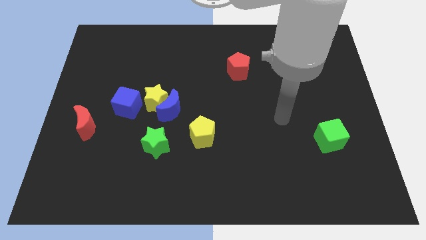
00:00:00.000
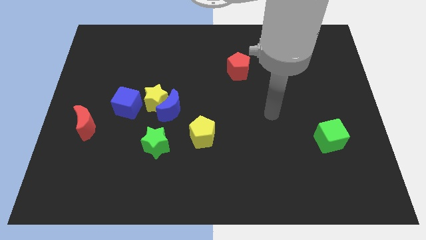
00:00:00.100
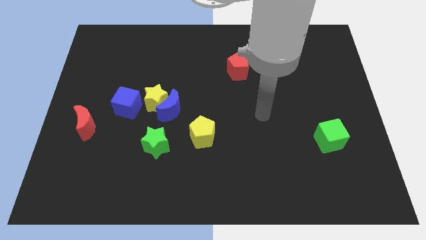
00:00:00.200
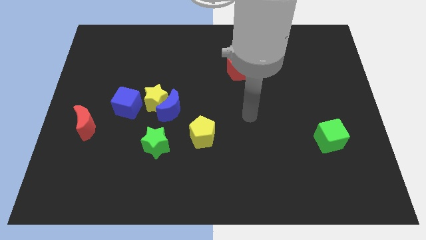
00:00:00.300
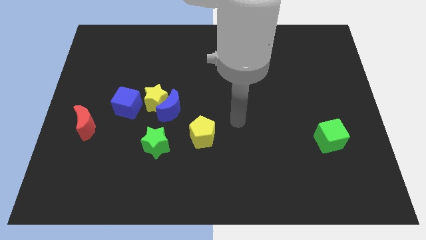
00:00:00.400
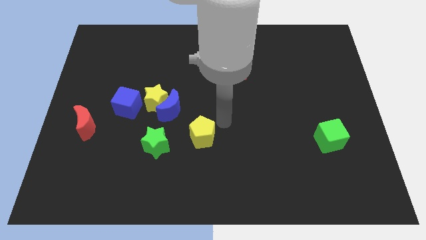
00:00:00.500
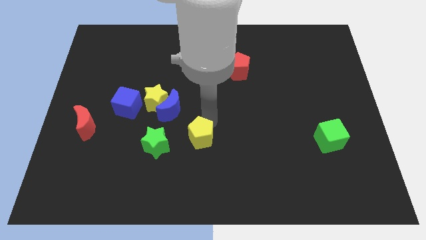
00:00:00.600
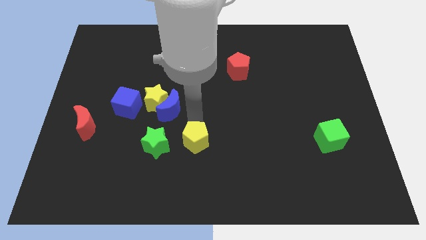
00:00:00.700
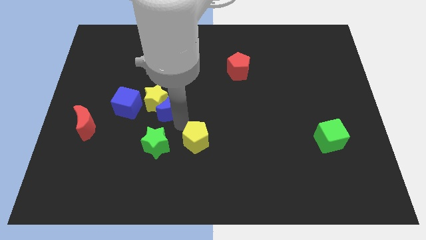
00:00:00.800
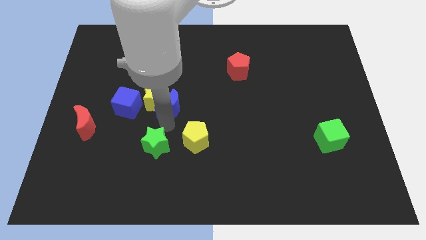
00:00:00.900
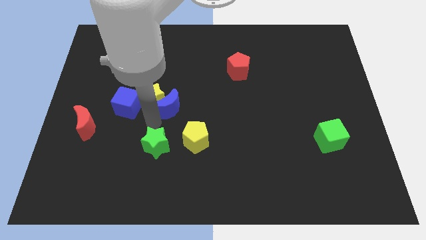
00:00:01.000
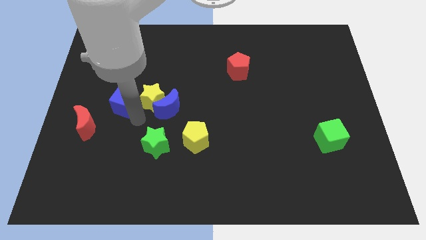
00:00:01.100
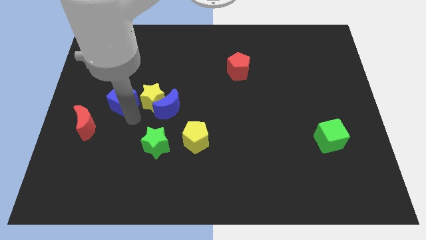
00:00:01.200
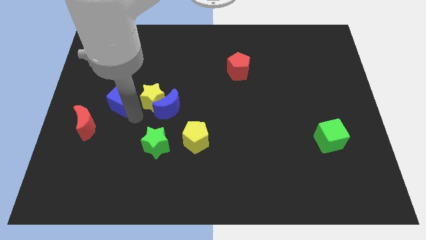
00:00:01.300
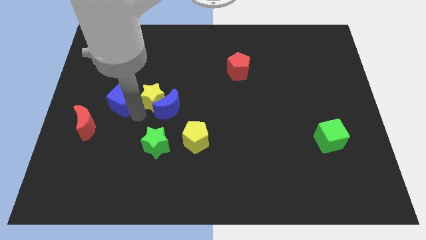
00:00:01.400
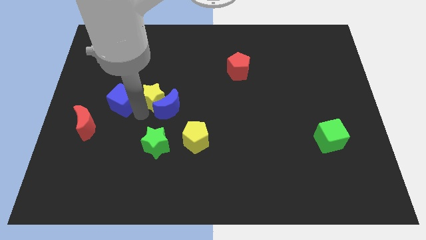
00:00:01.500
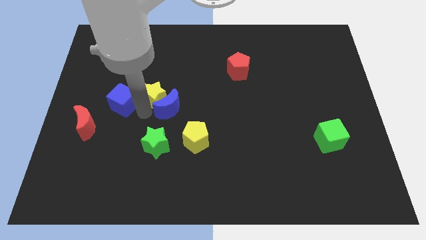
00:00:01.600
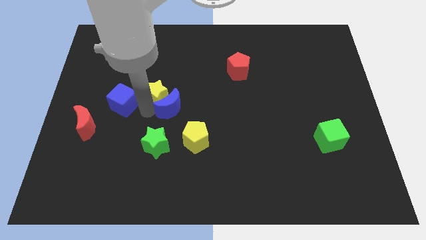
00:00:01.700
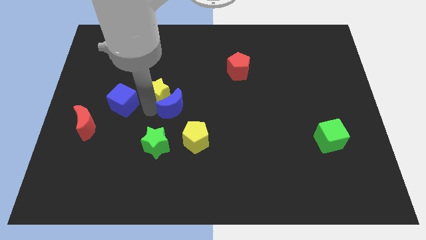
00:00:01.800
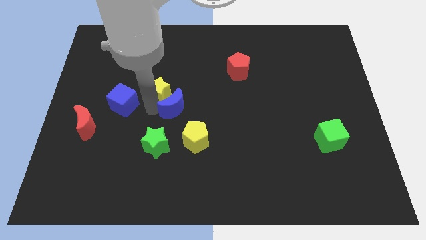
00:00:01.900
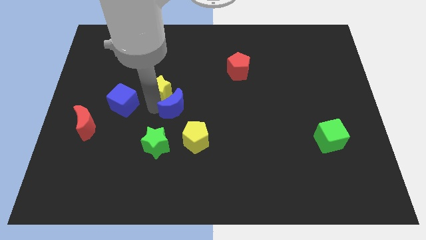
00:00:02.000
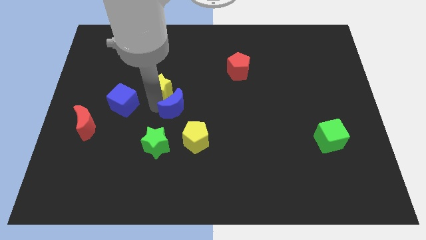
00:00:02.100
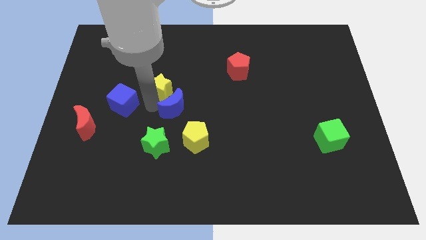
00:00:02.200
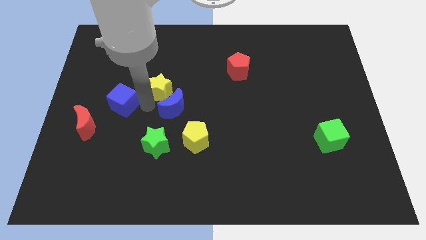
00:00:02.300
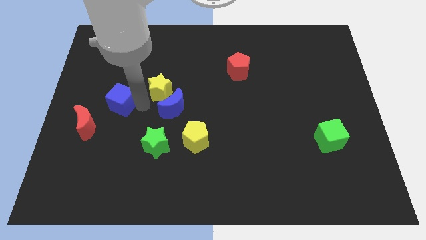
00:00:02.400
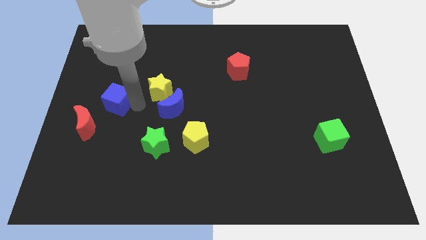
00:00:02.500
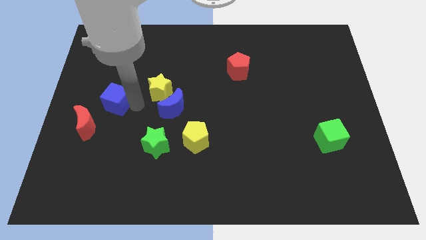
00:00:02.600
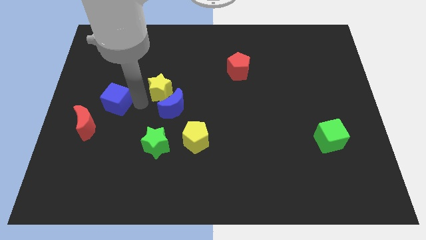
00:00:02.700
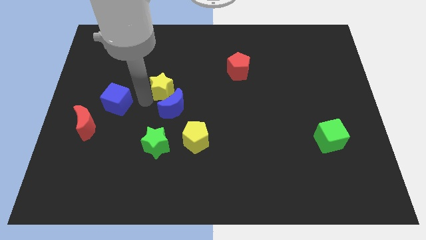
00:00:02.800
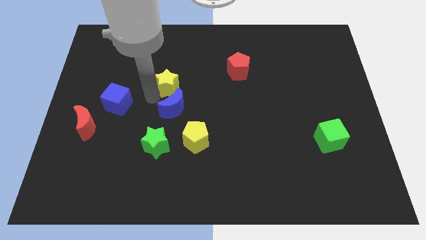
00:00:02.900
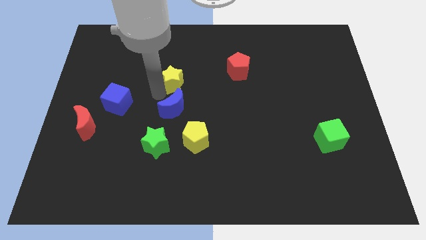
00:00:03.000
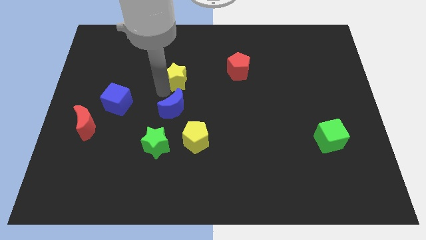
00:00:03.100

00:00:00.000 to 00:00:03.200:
pull the yellow star apart from the blue moon and blue cube

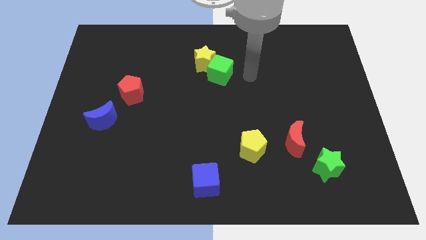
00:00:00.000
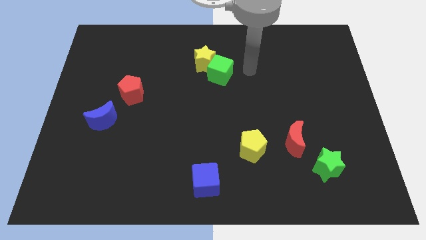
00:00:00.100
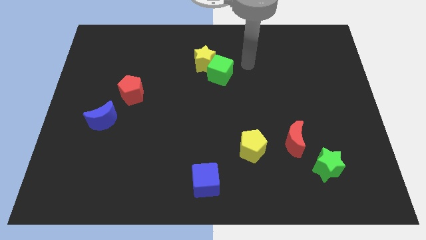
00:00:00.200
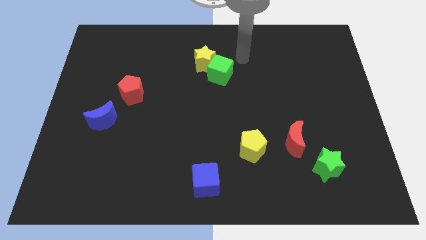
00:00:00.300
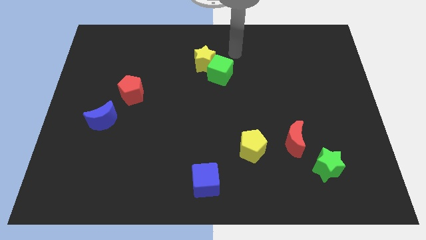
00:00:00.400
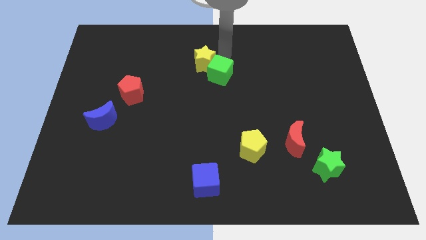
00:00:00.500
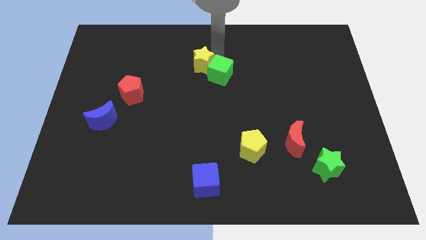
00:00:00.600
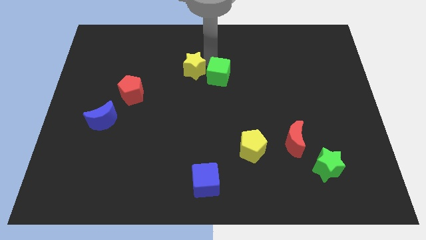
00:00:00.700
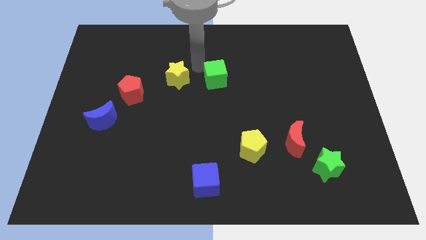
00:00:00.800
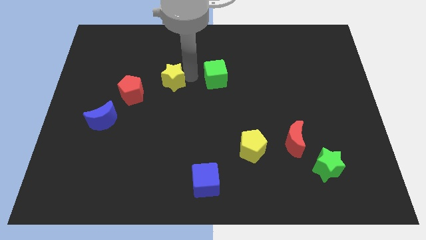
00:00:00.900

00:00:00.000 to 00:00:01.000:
separate the green cube from the yellow star

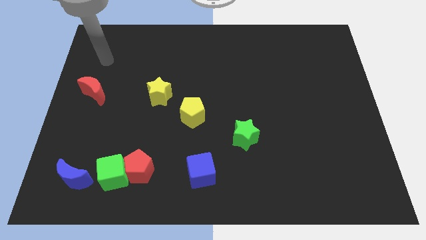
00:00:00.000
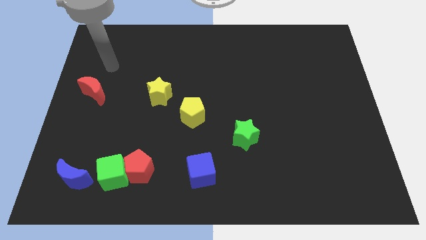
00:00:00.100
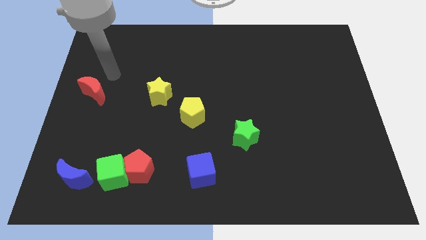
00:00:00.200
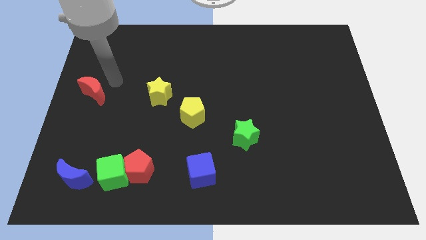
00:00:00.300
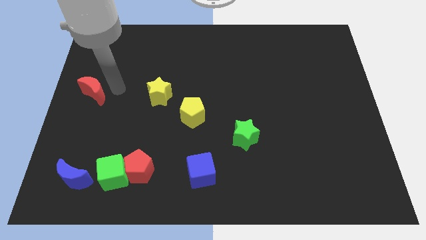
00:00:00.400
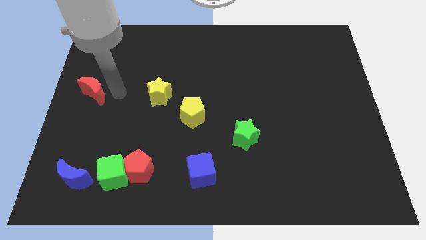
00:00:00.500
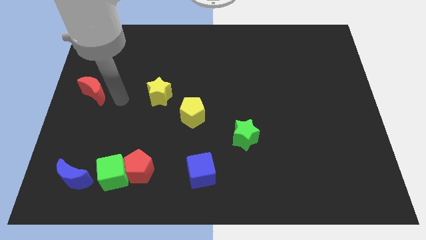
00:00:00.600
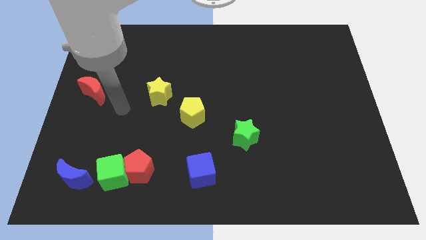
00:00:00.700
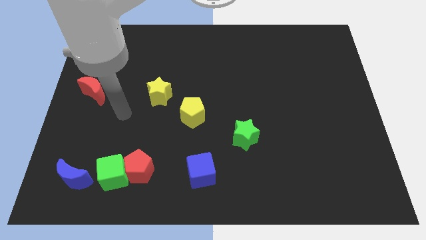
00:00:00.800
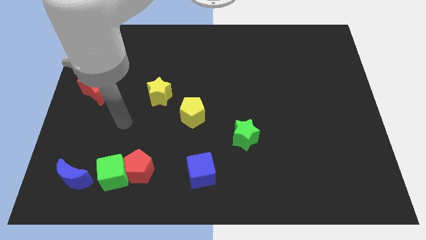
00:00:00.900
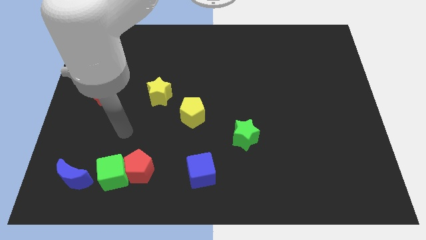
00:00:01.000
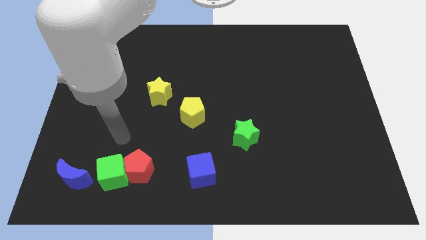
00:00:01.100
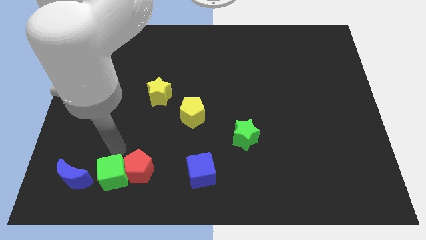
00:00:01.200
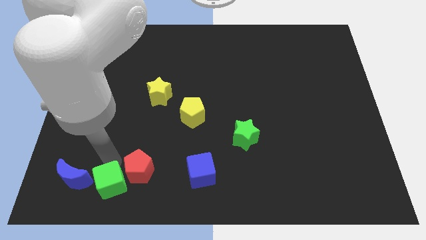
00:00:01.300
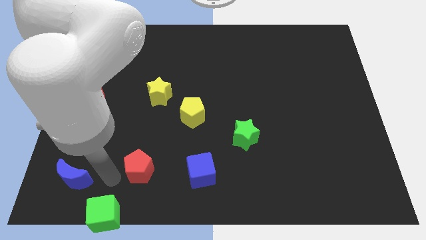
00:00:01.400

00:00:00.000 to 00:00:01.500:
separate the red pentagon from the green cube

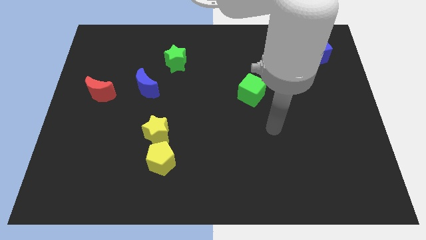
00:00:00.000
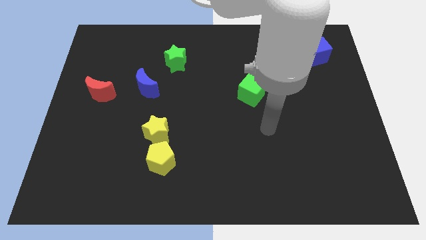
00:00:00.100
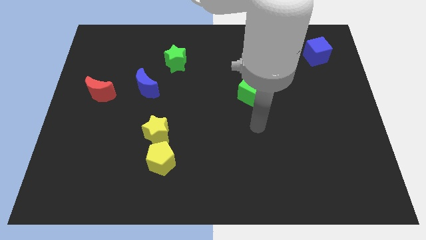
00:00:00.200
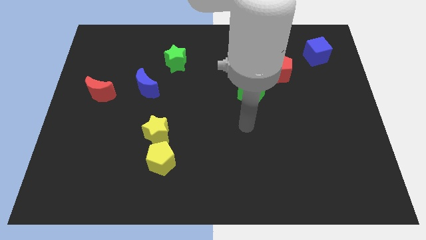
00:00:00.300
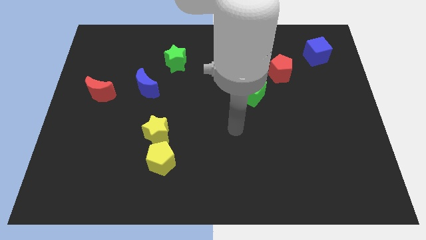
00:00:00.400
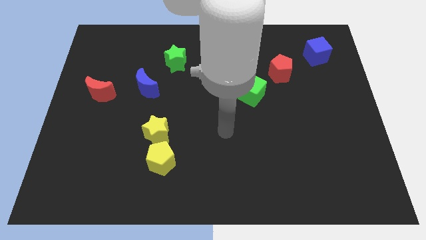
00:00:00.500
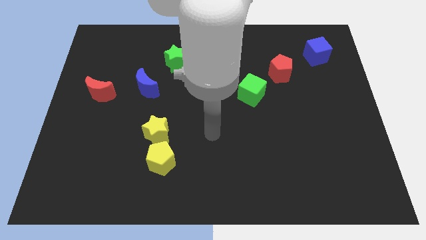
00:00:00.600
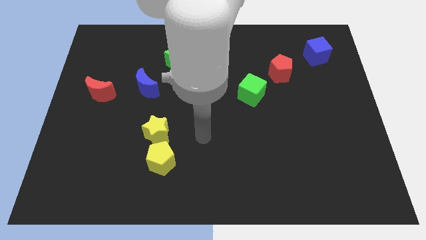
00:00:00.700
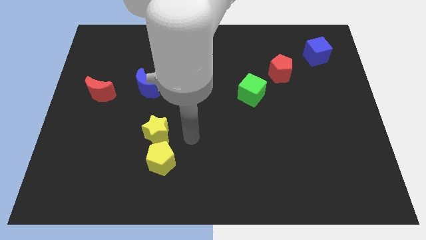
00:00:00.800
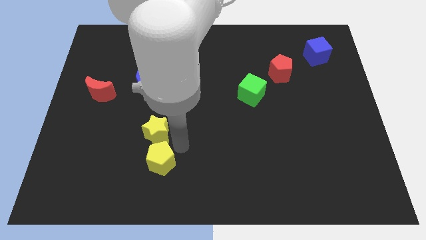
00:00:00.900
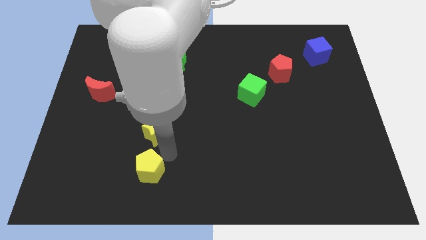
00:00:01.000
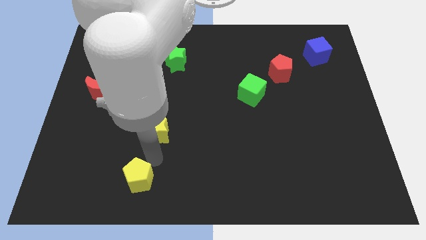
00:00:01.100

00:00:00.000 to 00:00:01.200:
separate the yellow star from the yellow pentagon

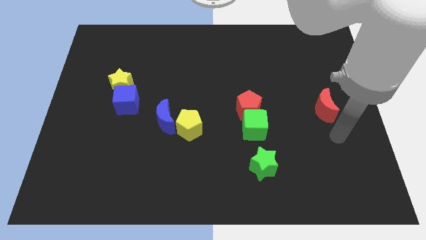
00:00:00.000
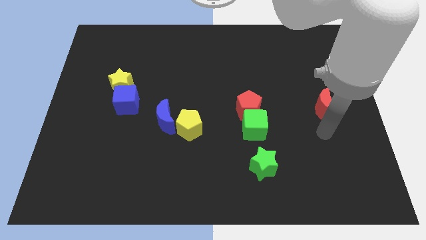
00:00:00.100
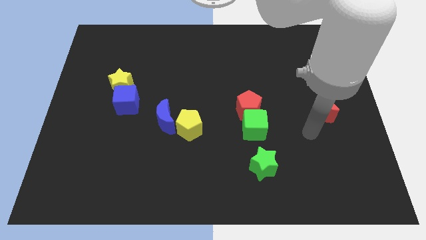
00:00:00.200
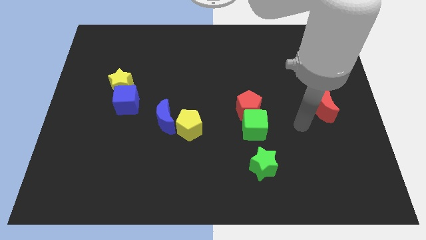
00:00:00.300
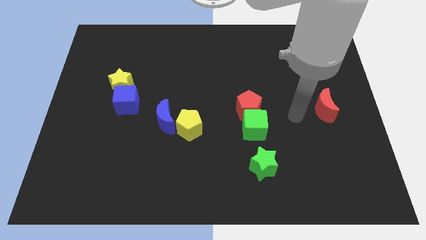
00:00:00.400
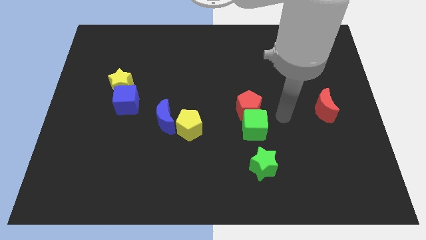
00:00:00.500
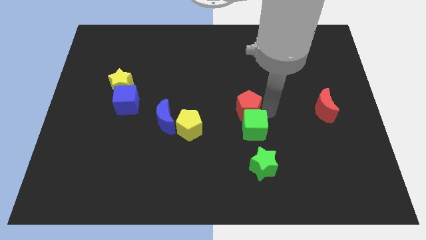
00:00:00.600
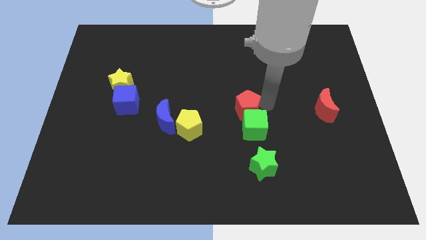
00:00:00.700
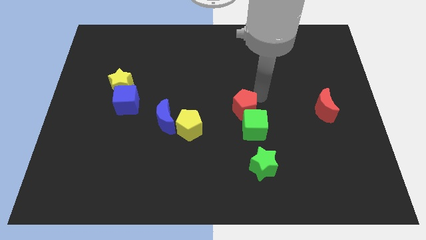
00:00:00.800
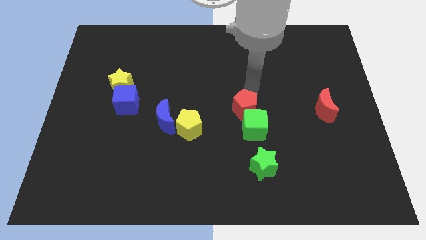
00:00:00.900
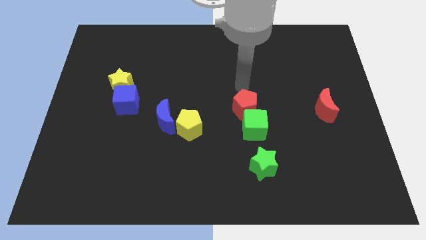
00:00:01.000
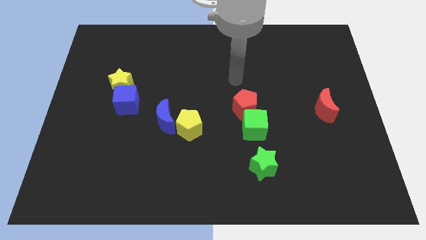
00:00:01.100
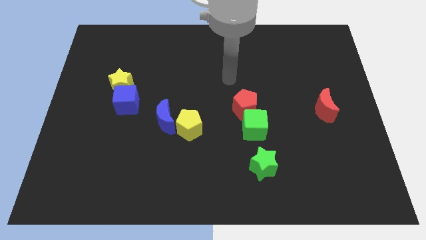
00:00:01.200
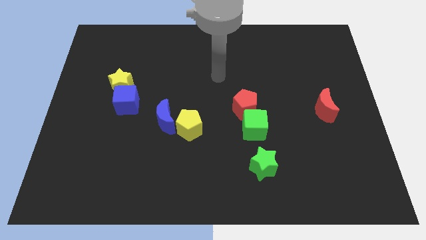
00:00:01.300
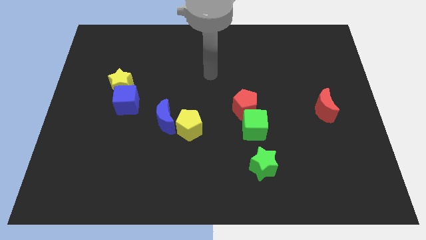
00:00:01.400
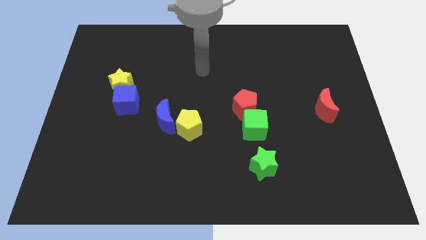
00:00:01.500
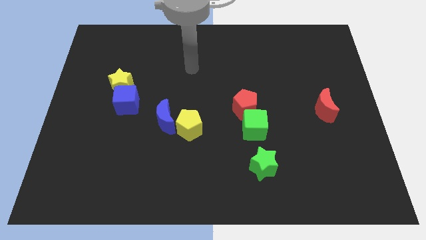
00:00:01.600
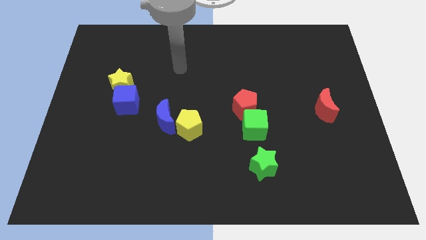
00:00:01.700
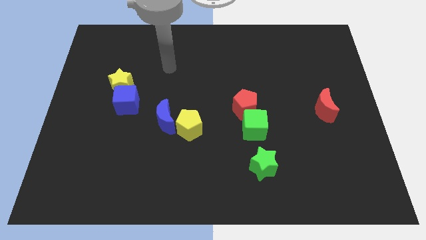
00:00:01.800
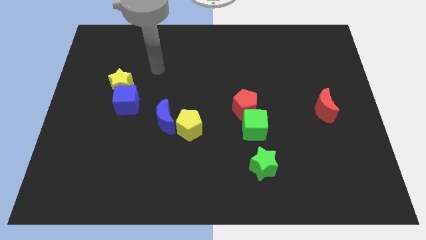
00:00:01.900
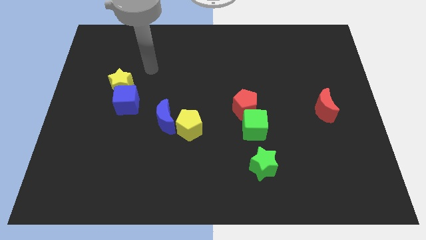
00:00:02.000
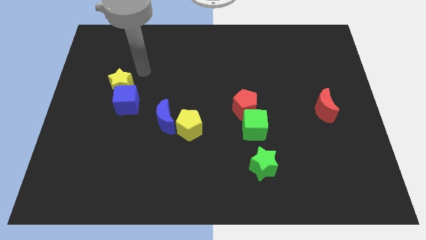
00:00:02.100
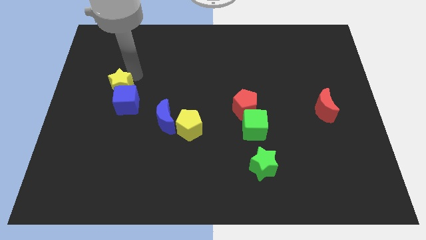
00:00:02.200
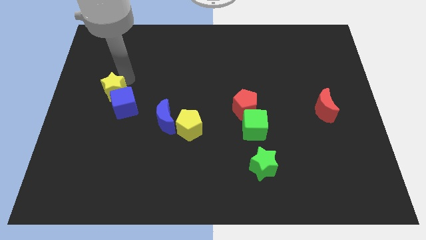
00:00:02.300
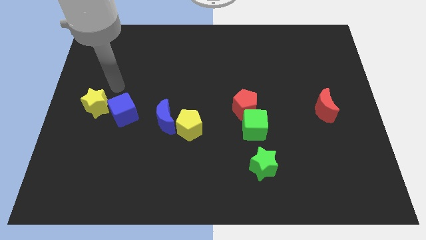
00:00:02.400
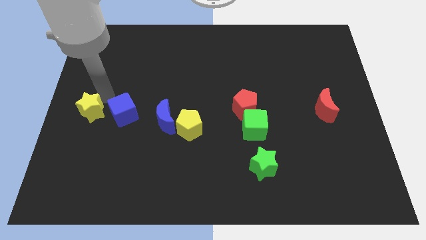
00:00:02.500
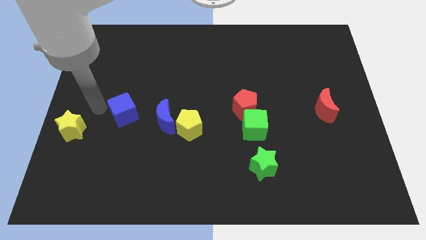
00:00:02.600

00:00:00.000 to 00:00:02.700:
move the blue cube away from the yellow star
